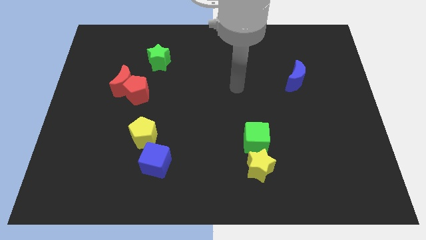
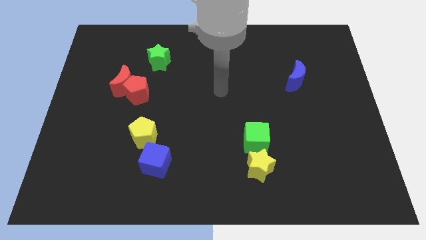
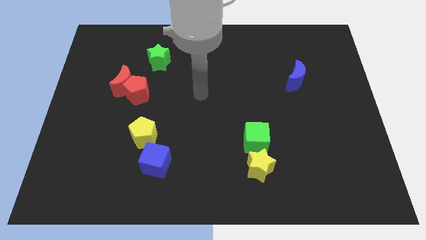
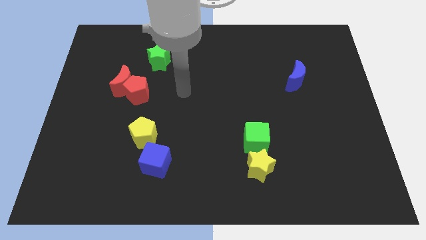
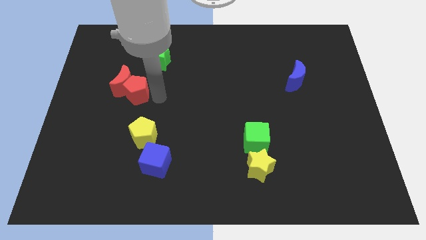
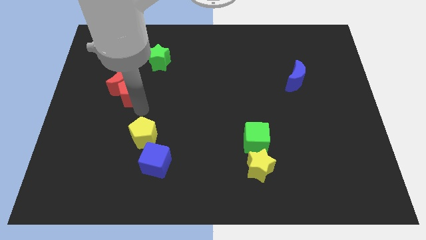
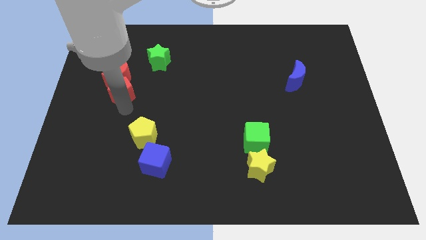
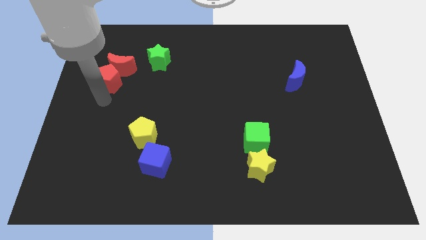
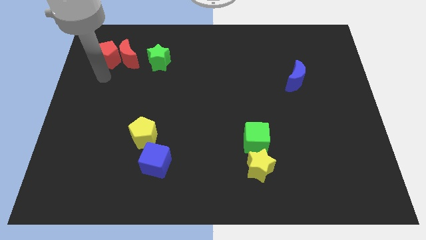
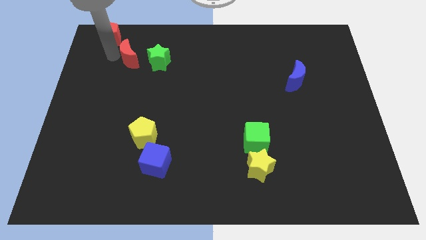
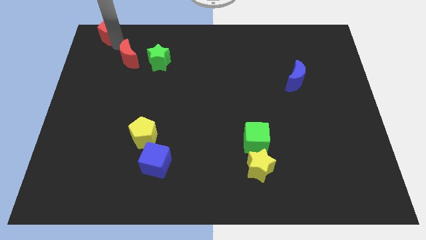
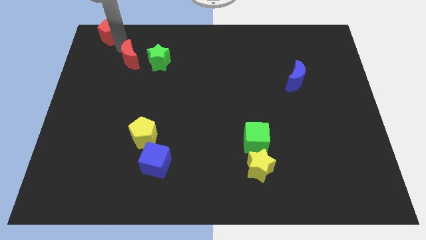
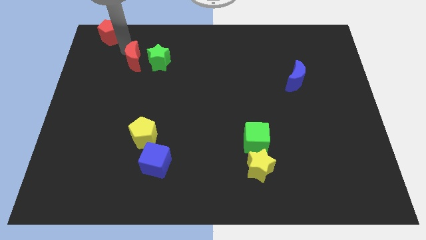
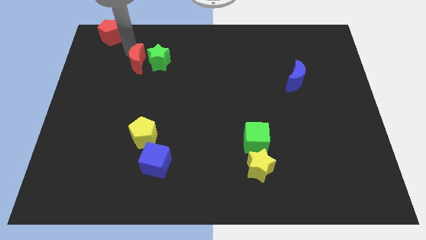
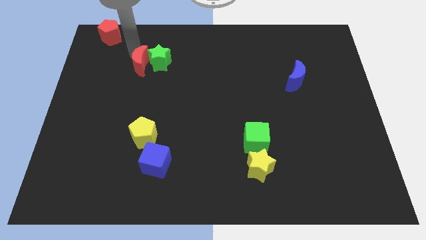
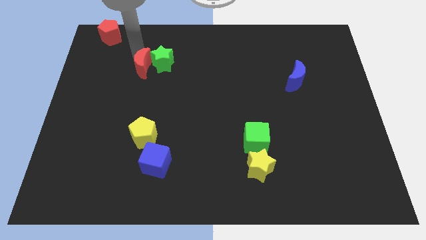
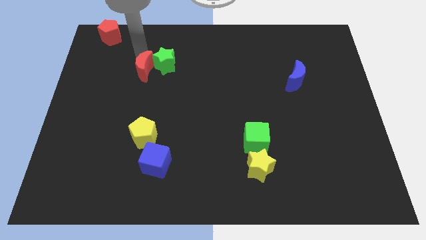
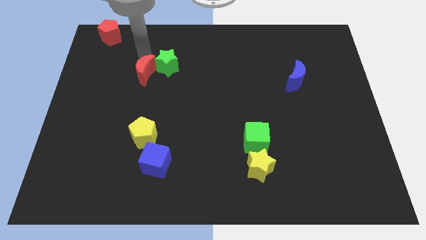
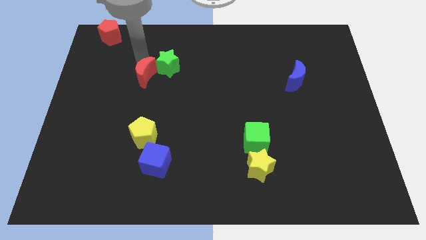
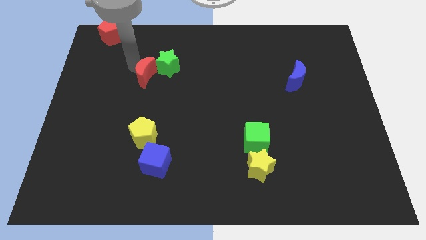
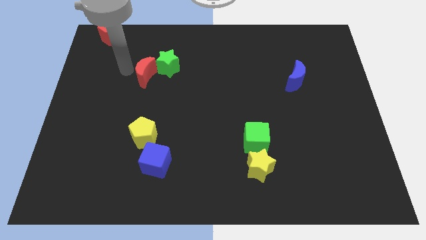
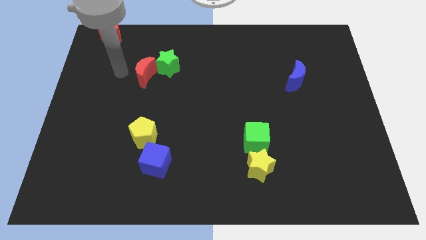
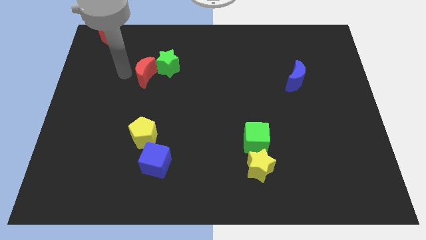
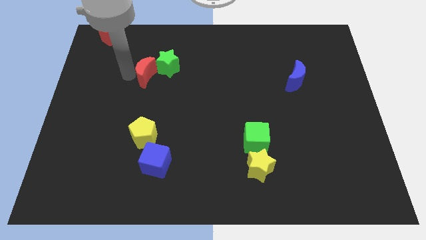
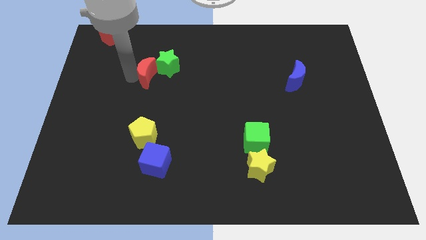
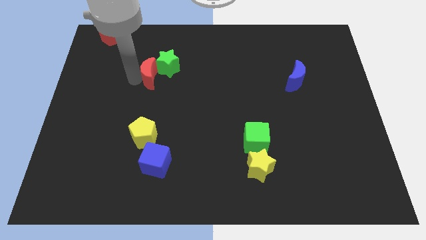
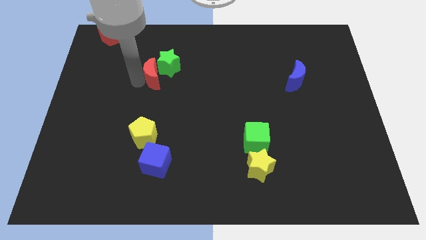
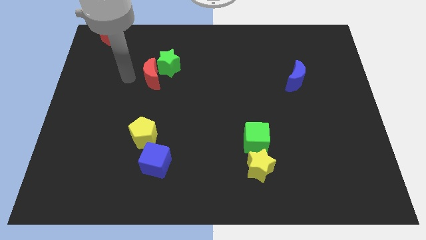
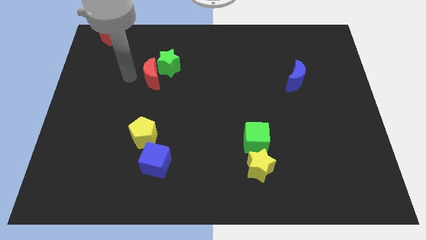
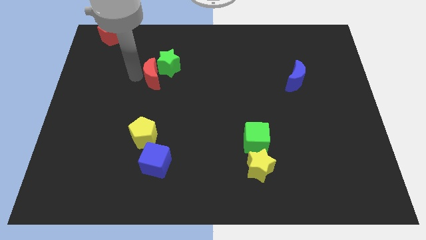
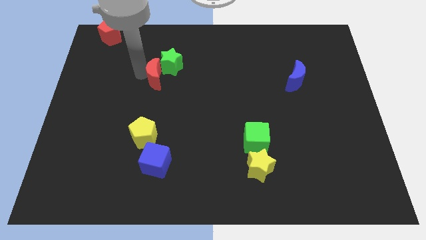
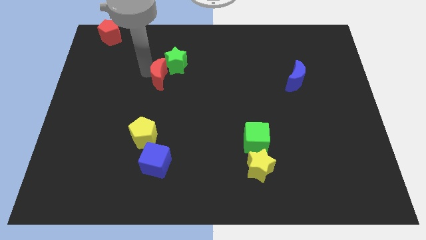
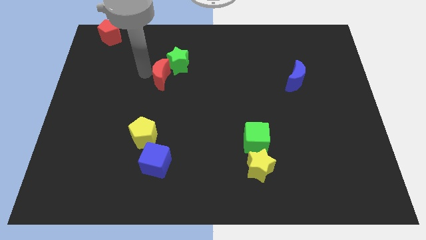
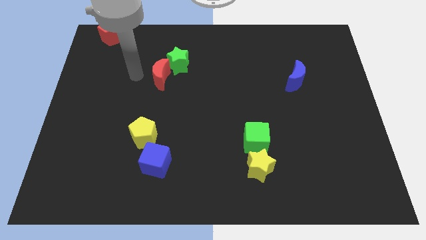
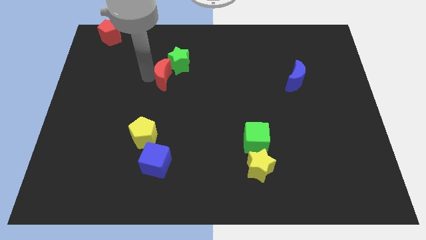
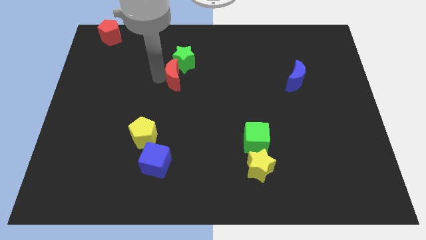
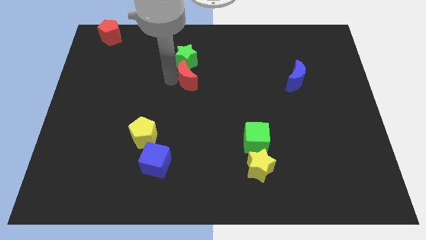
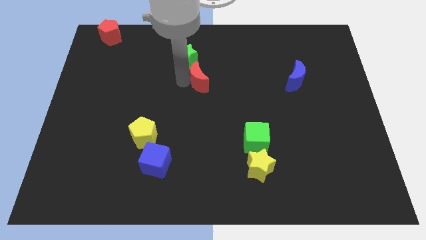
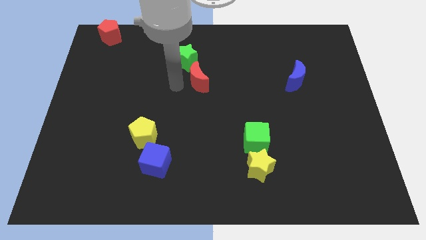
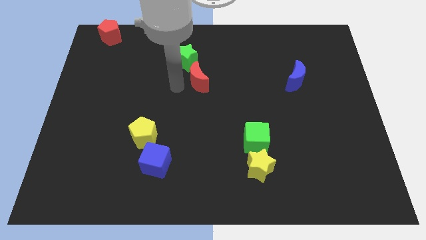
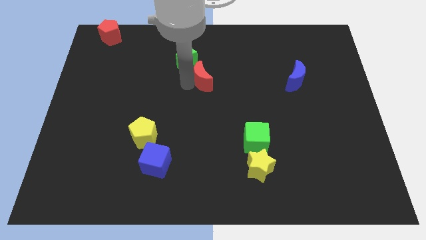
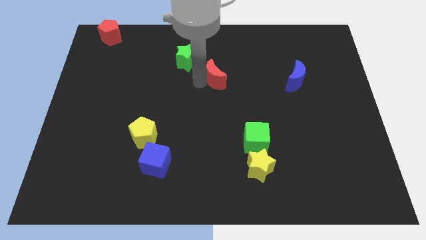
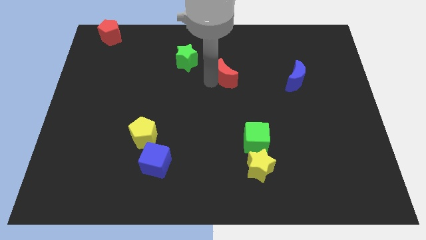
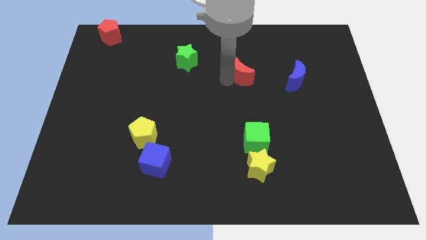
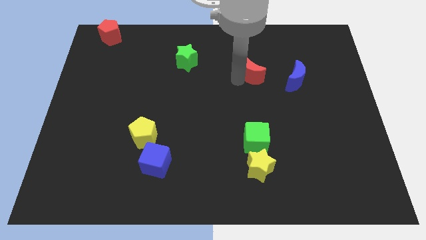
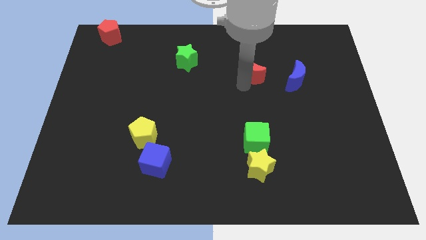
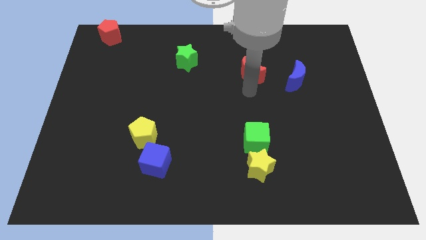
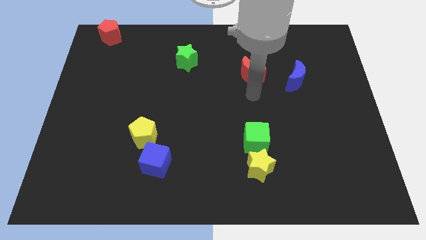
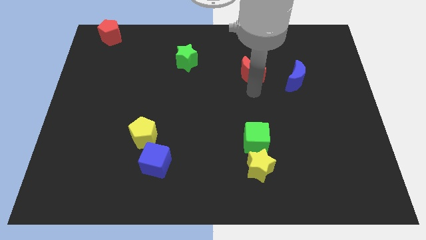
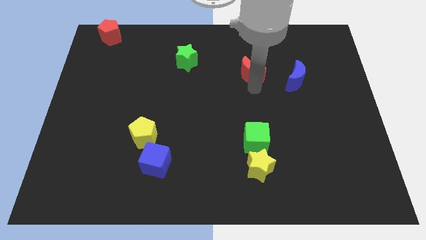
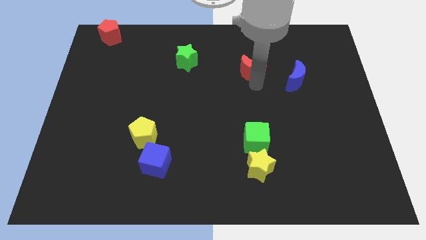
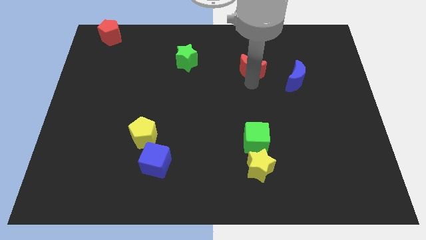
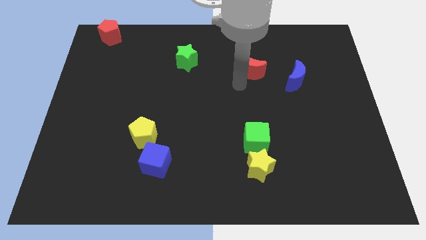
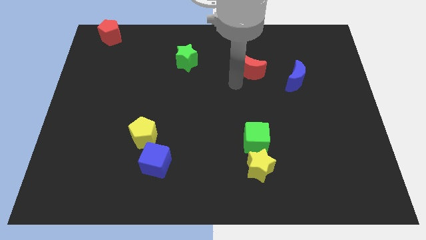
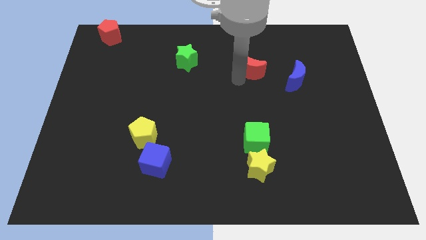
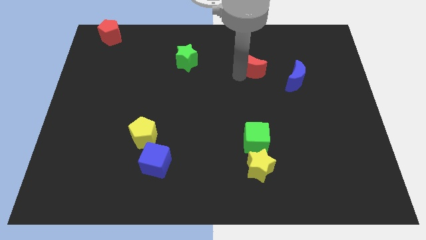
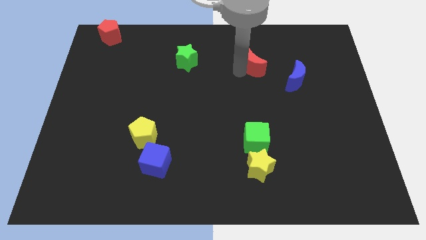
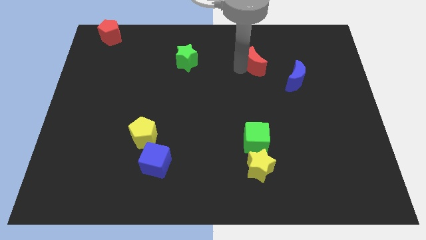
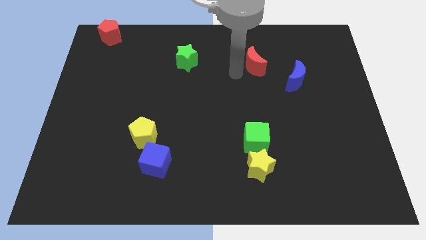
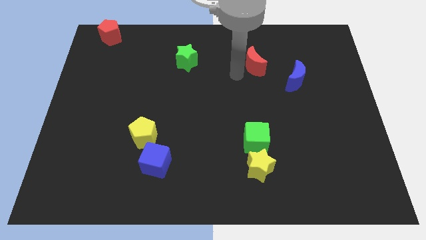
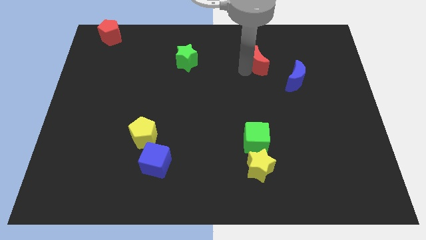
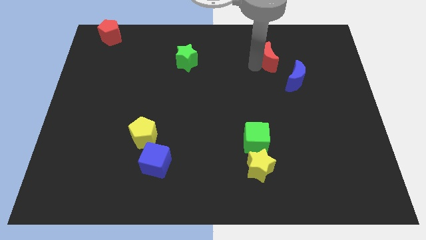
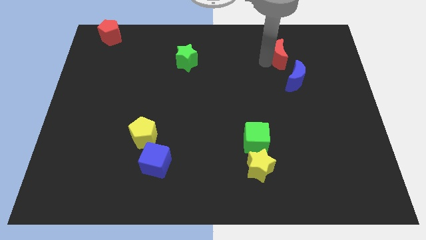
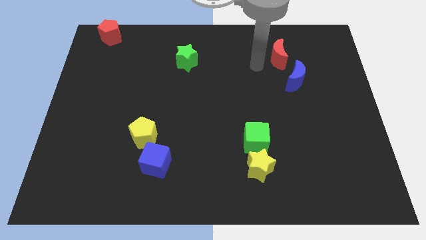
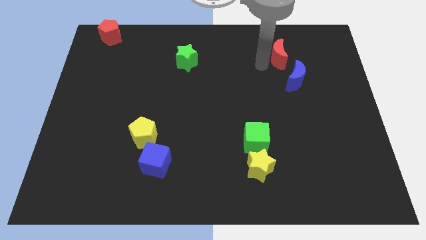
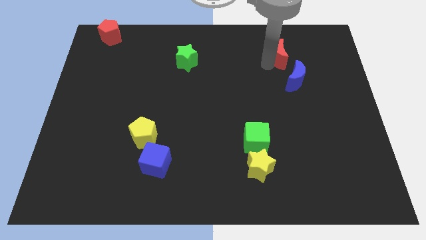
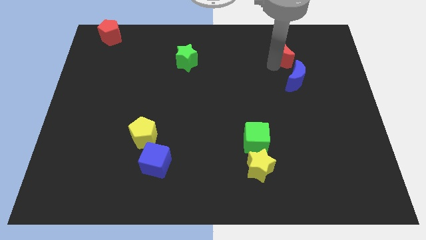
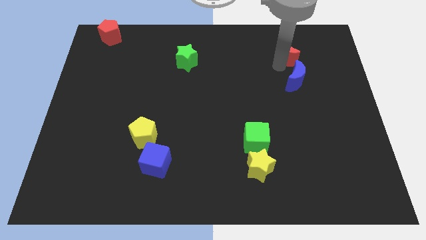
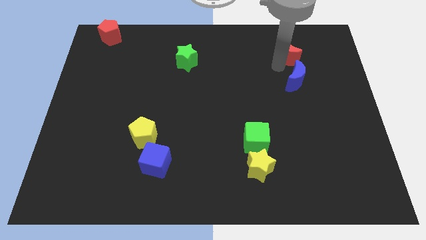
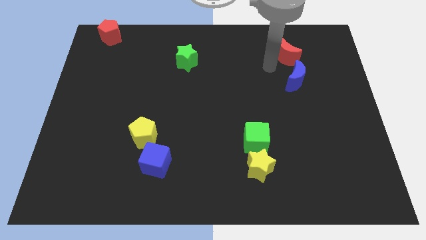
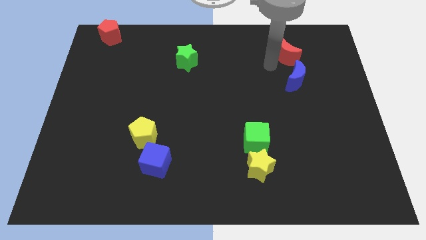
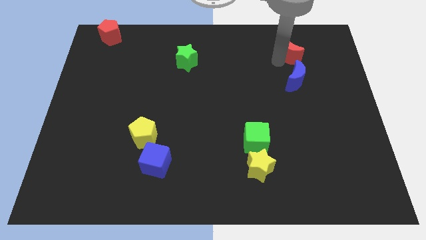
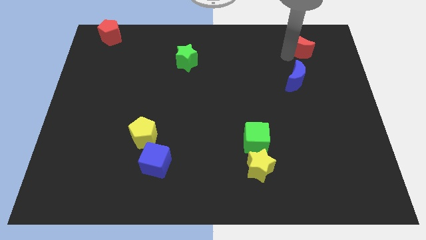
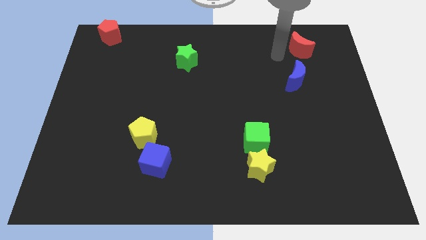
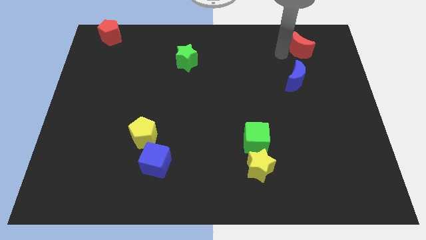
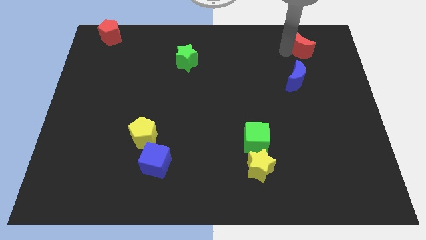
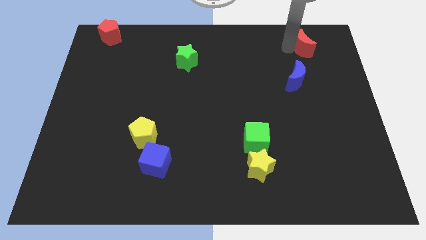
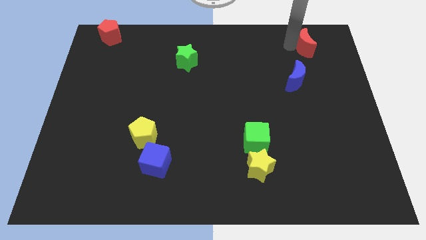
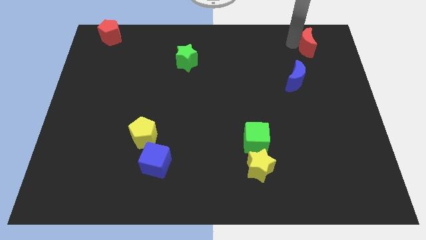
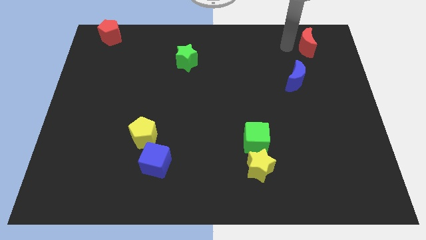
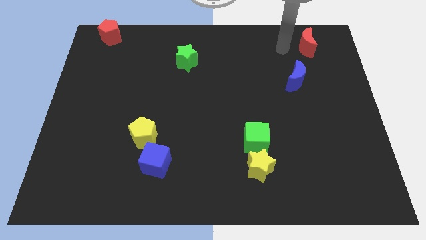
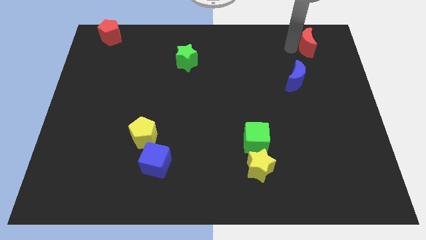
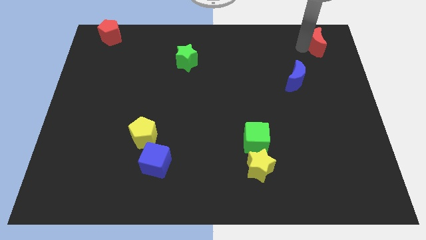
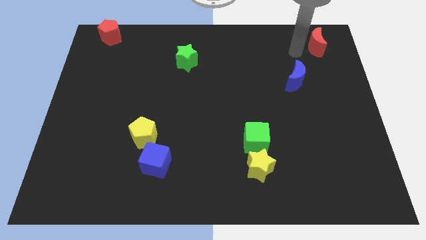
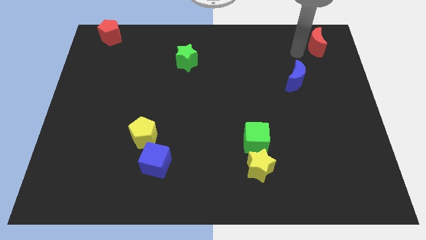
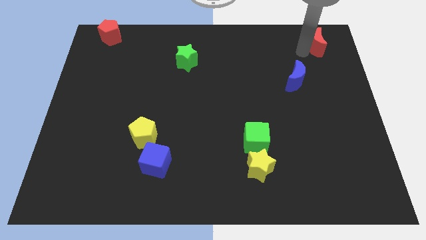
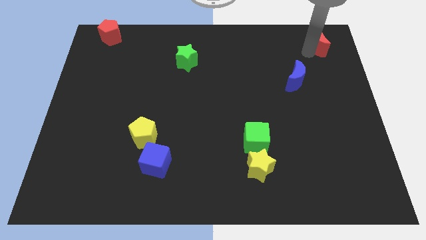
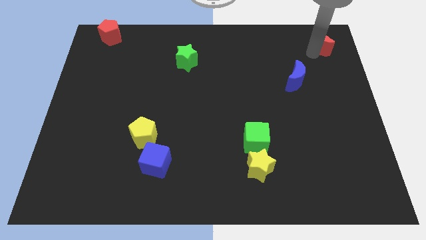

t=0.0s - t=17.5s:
slide the red moon to the top right corner
